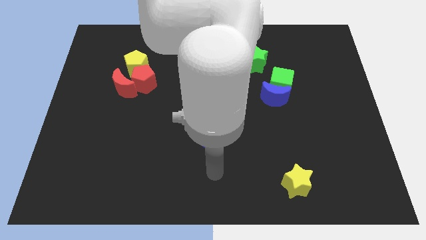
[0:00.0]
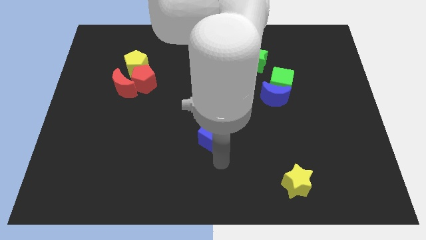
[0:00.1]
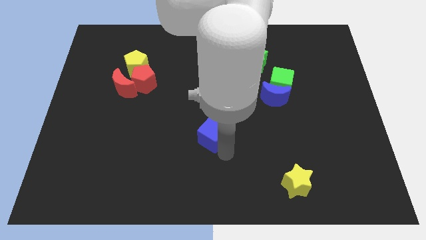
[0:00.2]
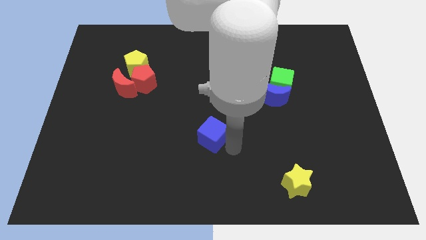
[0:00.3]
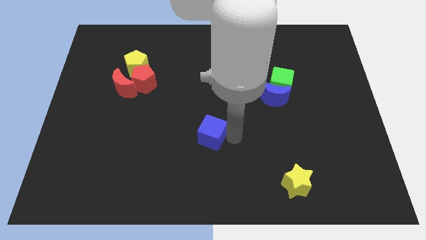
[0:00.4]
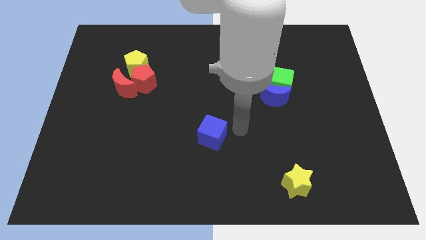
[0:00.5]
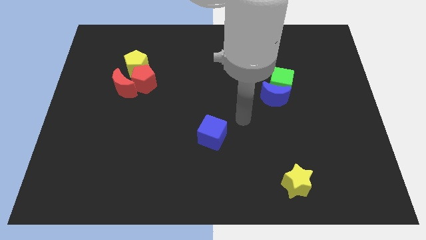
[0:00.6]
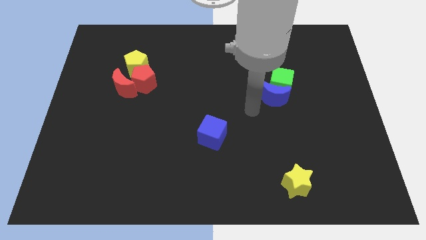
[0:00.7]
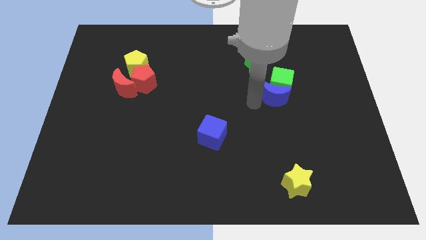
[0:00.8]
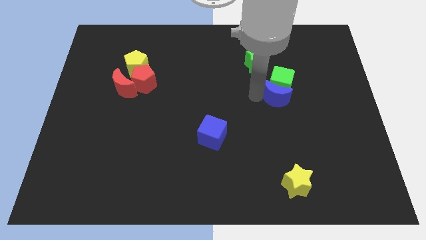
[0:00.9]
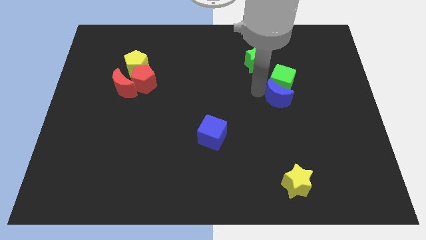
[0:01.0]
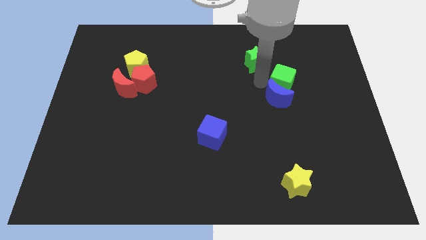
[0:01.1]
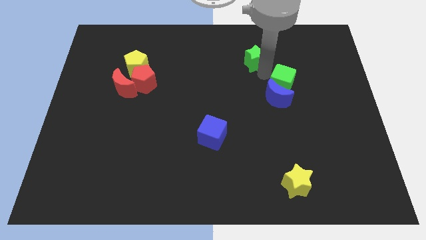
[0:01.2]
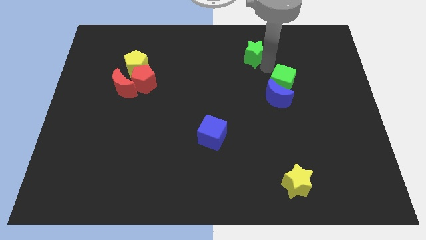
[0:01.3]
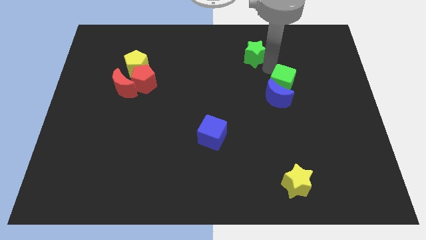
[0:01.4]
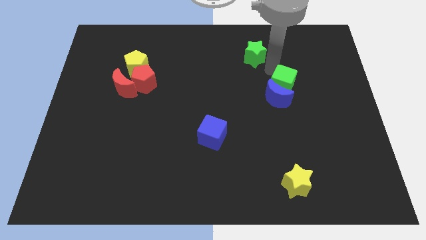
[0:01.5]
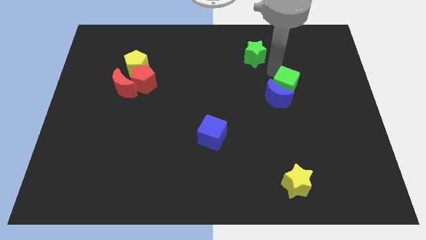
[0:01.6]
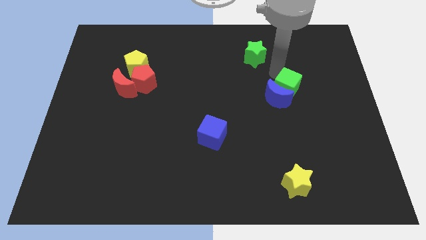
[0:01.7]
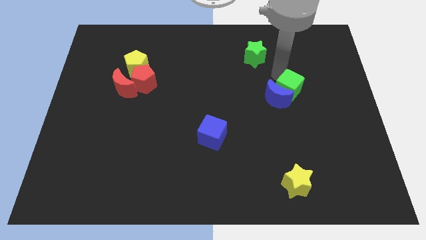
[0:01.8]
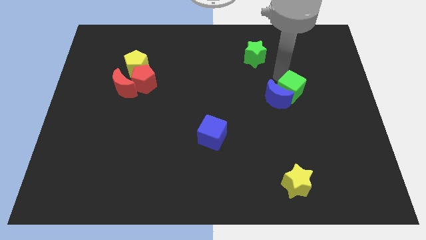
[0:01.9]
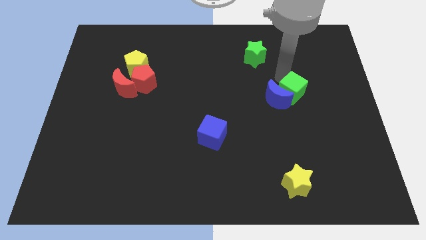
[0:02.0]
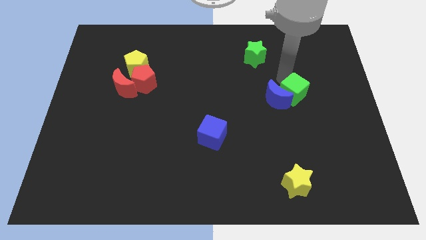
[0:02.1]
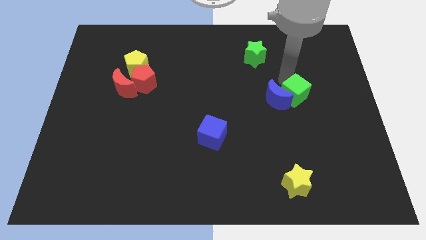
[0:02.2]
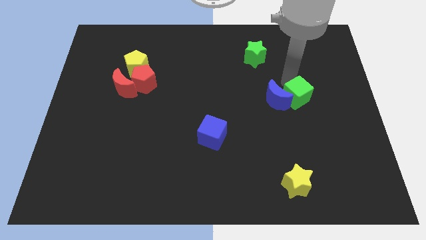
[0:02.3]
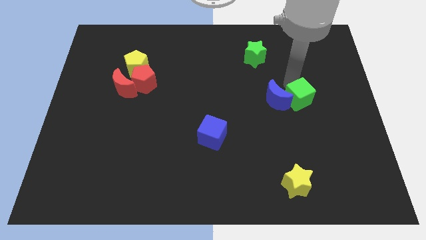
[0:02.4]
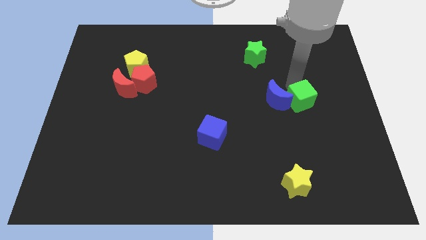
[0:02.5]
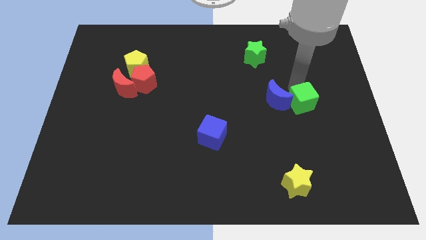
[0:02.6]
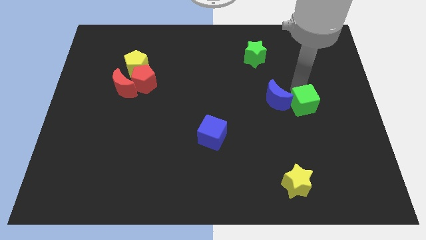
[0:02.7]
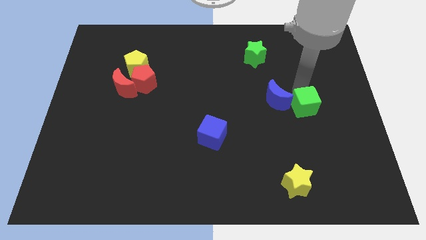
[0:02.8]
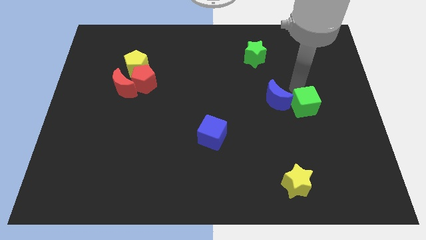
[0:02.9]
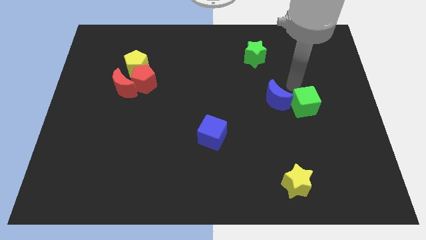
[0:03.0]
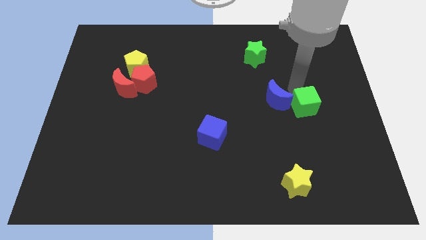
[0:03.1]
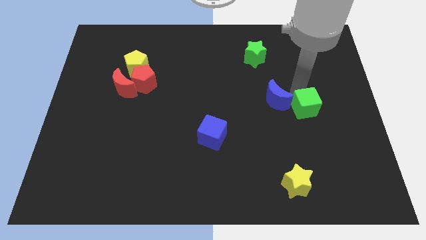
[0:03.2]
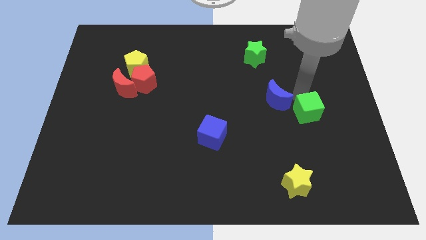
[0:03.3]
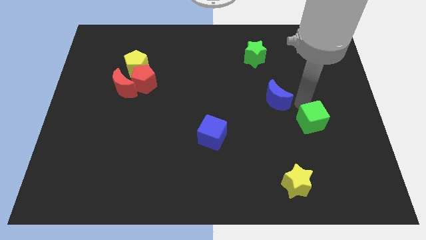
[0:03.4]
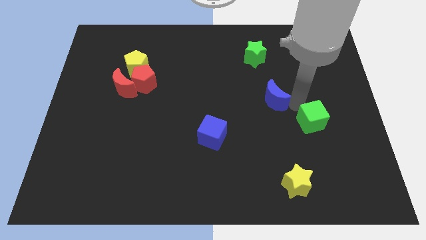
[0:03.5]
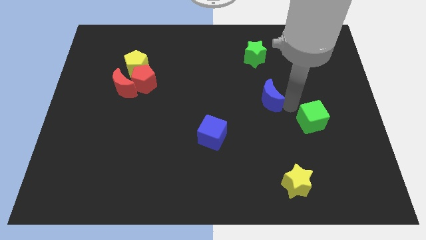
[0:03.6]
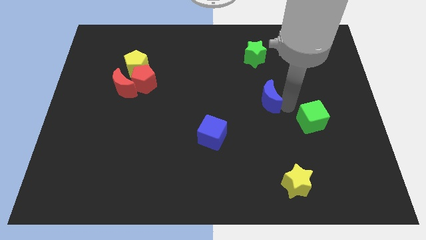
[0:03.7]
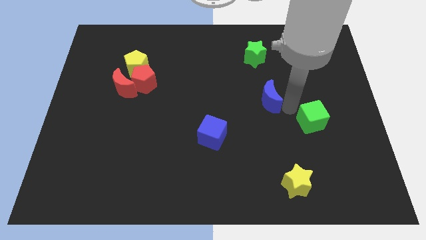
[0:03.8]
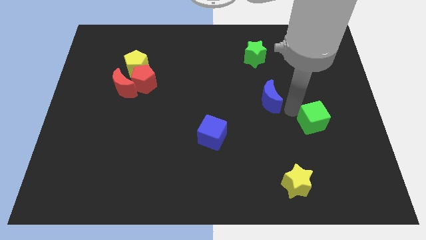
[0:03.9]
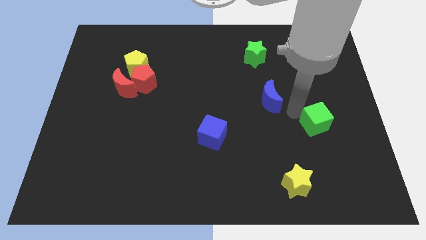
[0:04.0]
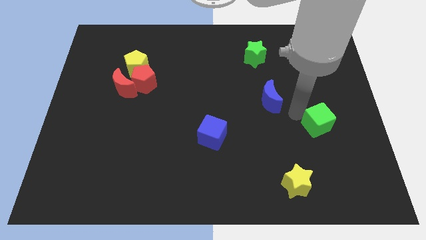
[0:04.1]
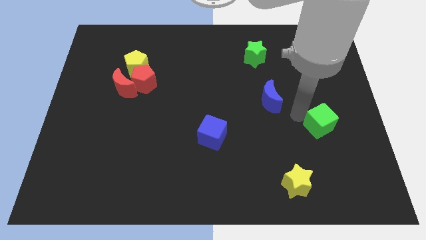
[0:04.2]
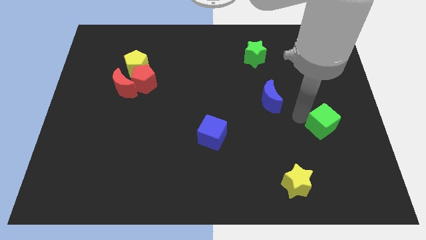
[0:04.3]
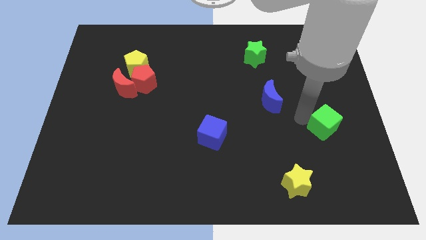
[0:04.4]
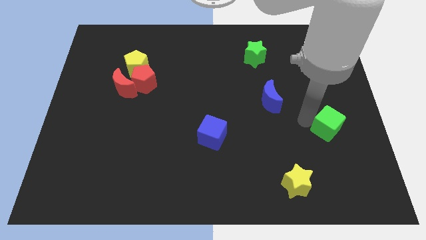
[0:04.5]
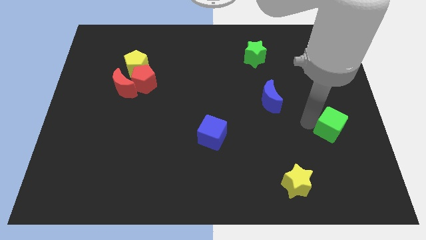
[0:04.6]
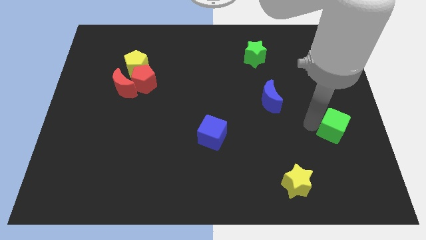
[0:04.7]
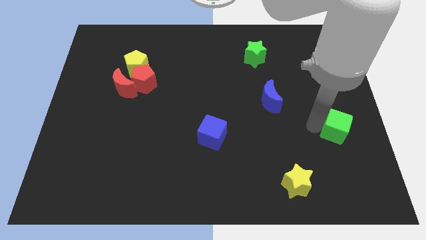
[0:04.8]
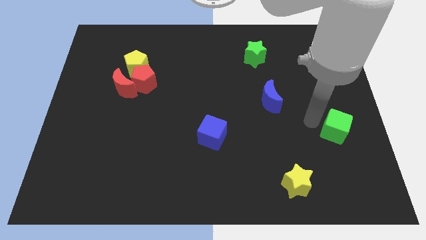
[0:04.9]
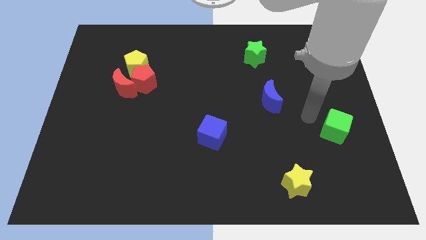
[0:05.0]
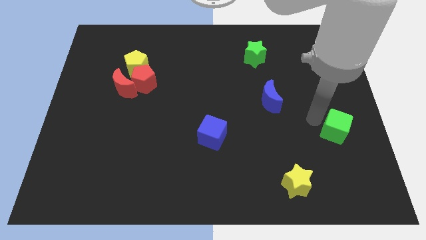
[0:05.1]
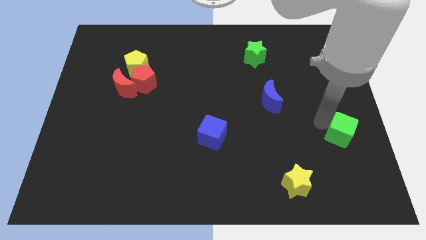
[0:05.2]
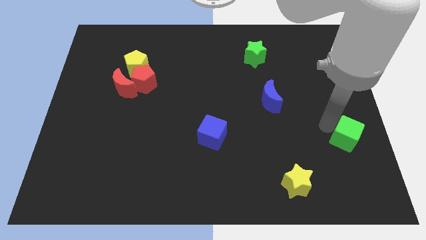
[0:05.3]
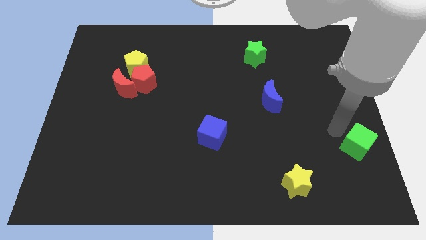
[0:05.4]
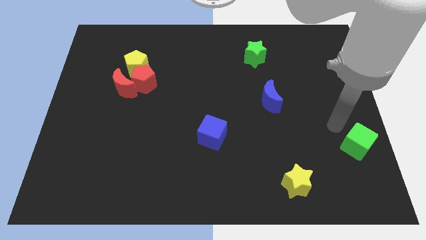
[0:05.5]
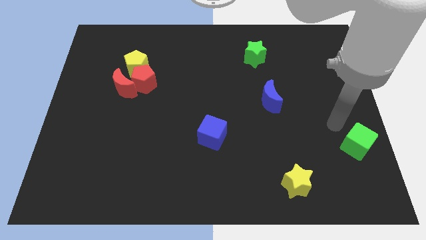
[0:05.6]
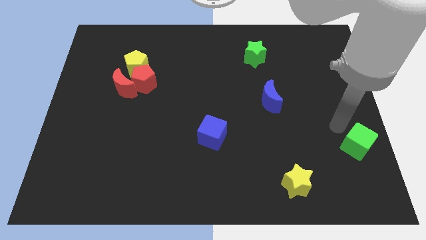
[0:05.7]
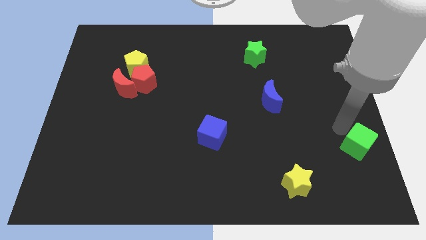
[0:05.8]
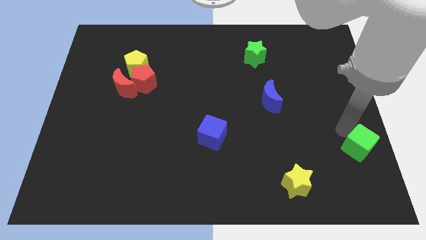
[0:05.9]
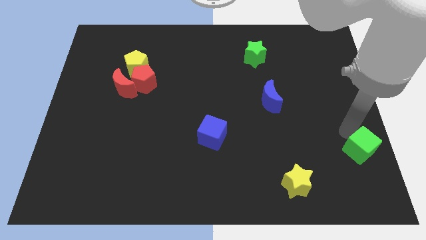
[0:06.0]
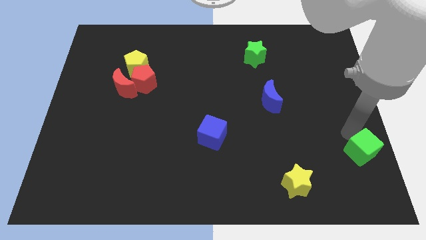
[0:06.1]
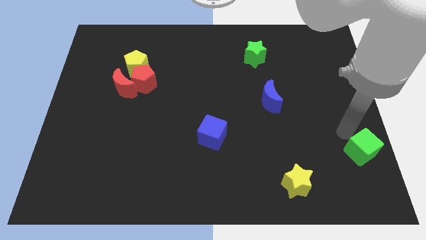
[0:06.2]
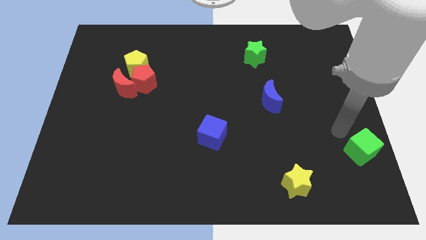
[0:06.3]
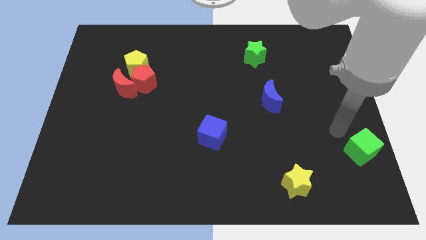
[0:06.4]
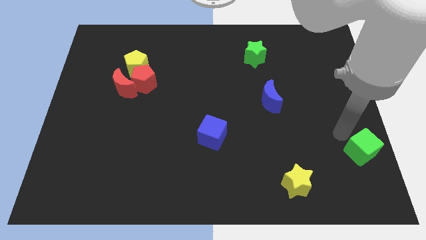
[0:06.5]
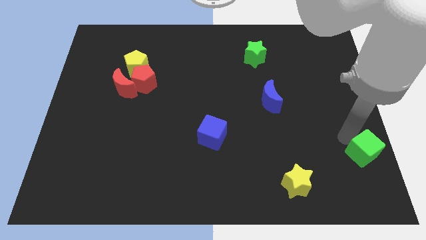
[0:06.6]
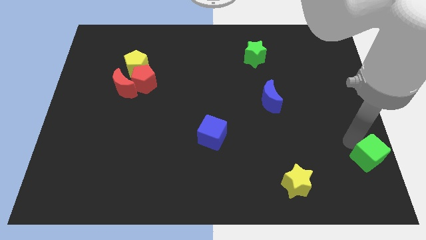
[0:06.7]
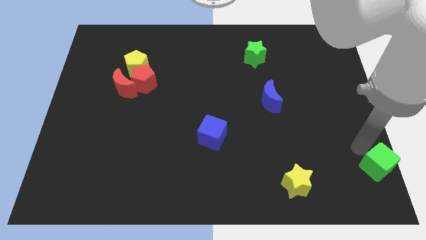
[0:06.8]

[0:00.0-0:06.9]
slide the green cube to the bottom right

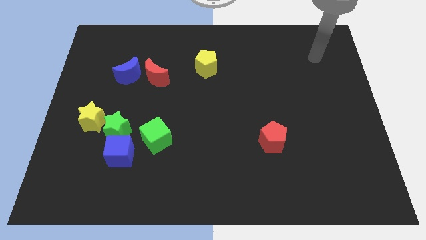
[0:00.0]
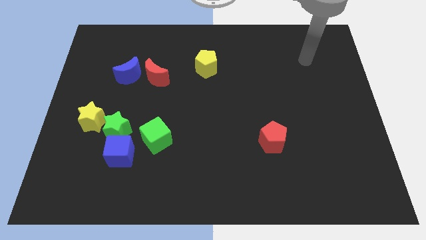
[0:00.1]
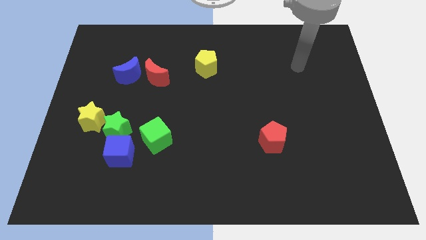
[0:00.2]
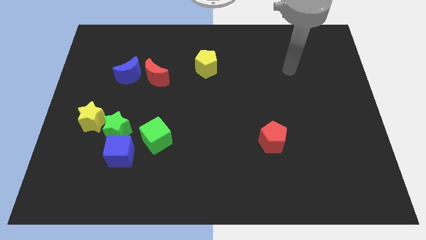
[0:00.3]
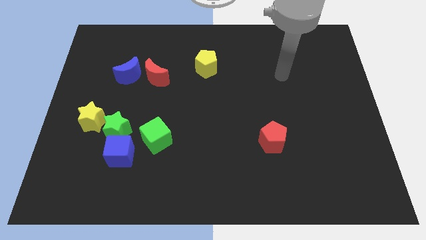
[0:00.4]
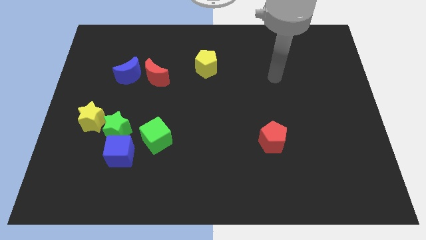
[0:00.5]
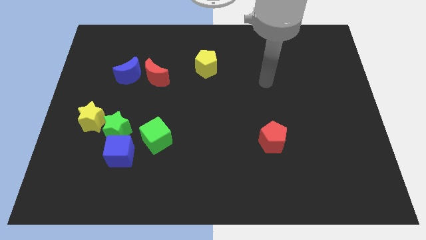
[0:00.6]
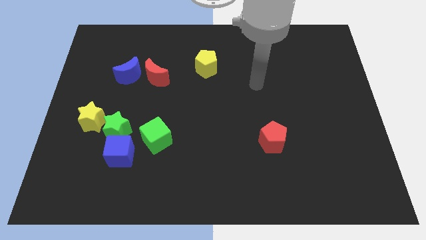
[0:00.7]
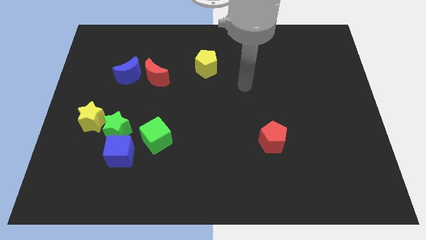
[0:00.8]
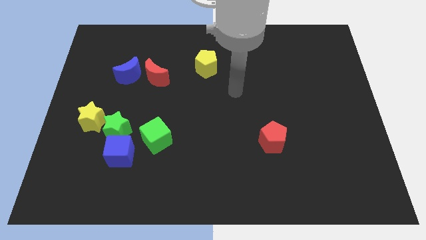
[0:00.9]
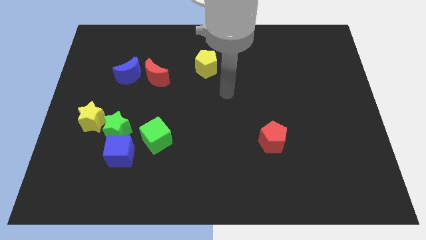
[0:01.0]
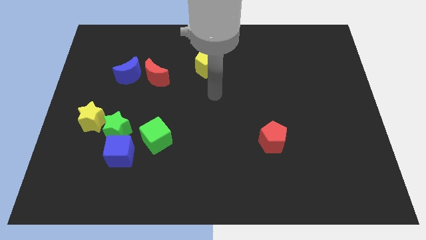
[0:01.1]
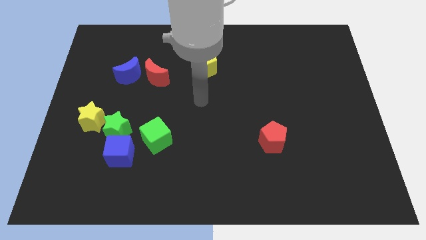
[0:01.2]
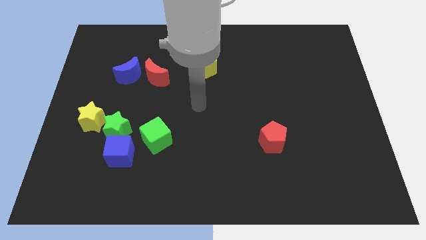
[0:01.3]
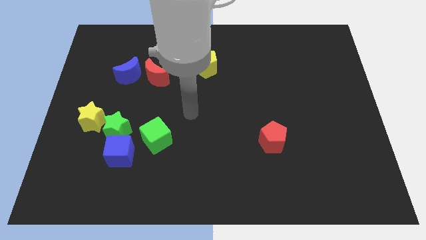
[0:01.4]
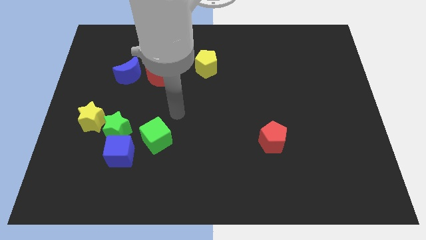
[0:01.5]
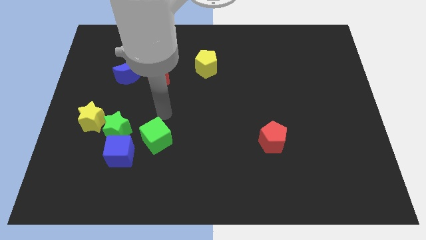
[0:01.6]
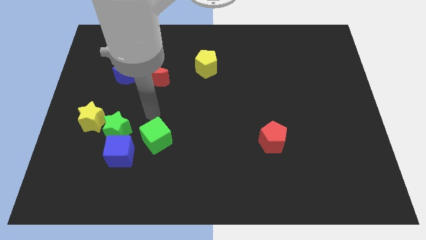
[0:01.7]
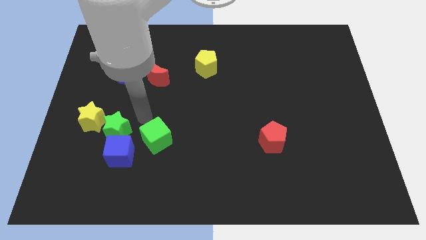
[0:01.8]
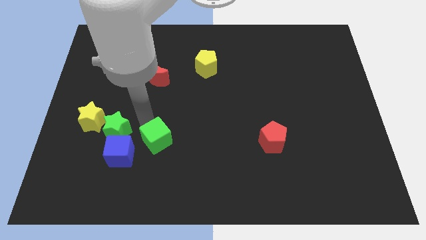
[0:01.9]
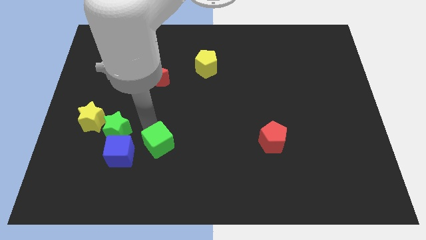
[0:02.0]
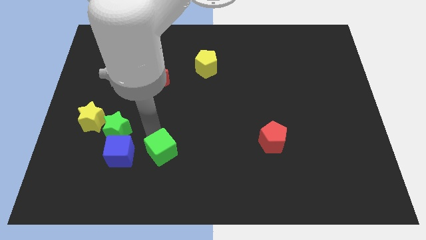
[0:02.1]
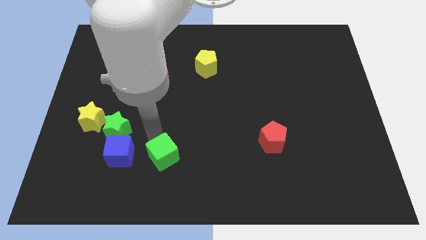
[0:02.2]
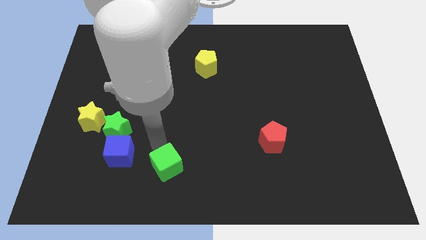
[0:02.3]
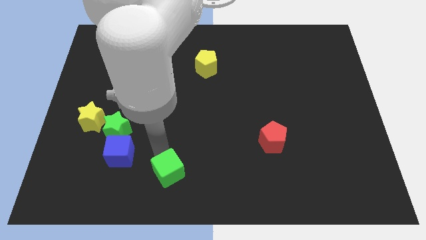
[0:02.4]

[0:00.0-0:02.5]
move the green cube to the bottom
